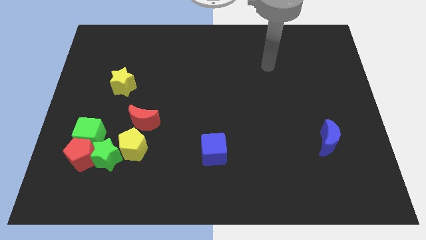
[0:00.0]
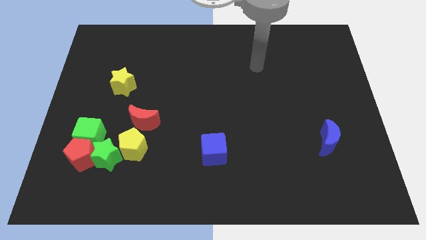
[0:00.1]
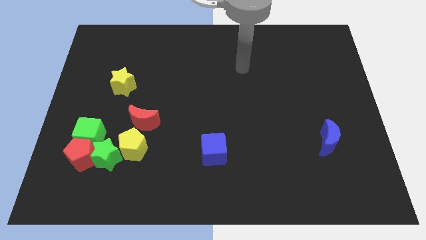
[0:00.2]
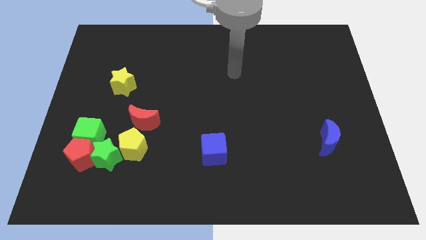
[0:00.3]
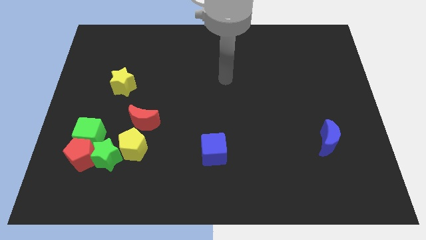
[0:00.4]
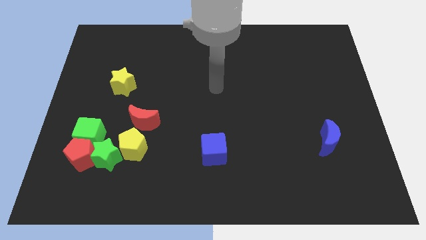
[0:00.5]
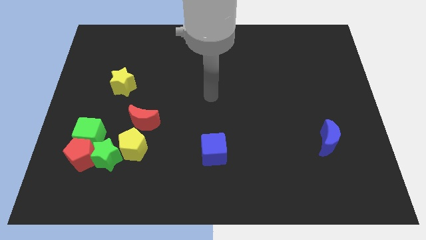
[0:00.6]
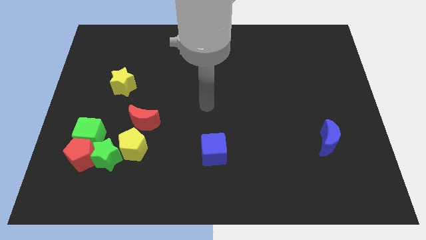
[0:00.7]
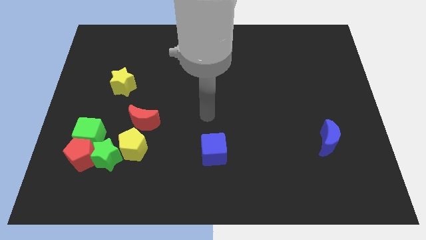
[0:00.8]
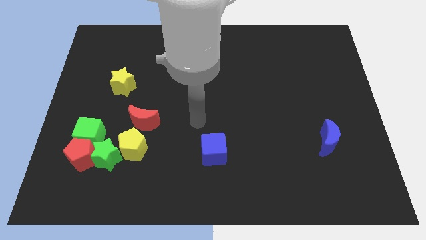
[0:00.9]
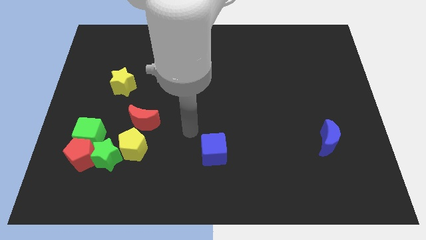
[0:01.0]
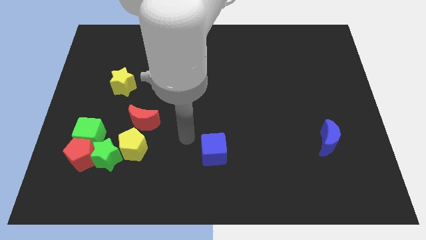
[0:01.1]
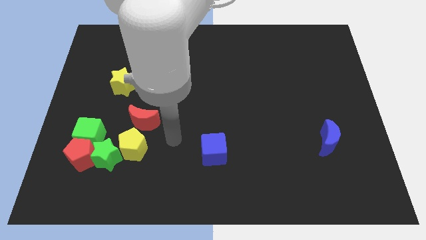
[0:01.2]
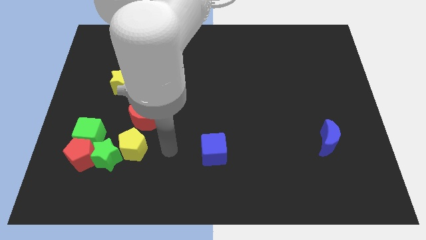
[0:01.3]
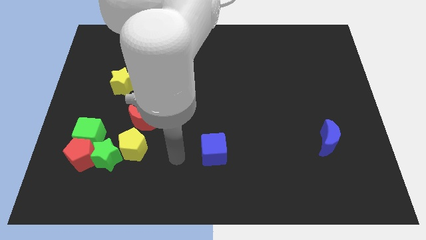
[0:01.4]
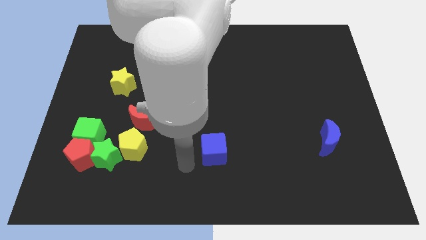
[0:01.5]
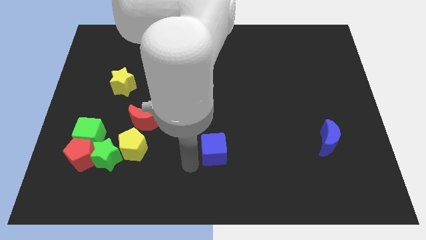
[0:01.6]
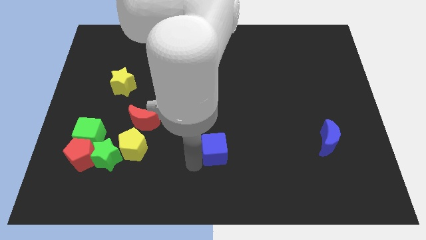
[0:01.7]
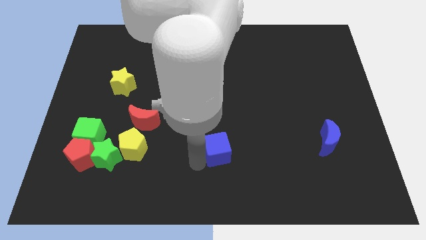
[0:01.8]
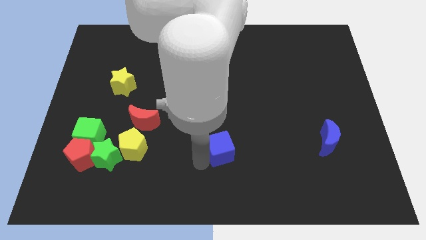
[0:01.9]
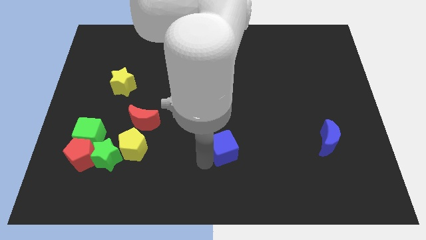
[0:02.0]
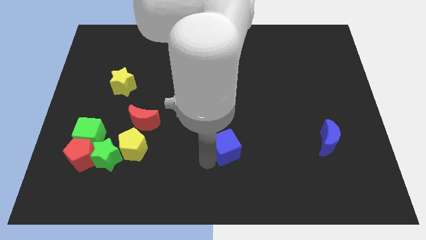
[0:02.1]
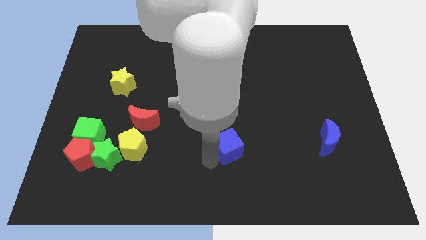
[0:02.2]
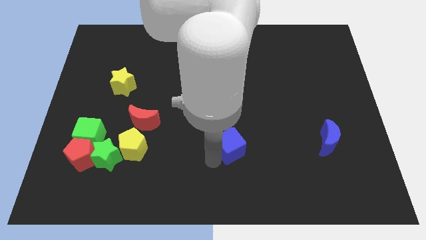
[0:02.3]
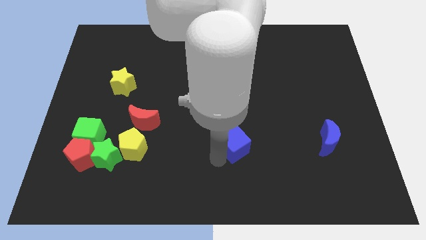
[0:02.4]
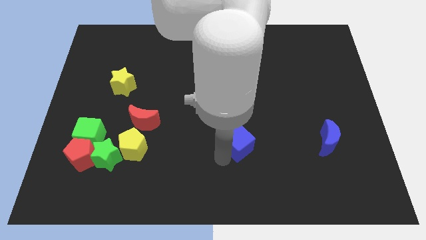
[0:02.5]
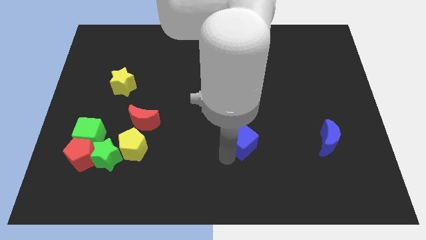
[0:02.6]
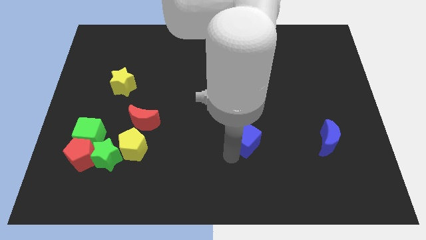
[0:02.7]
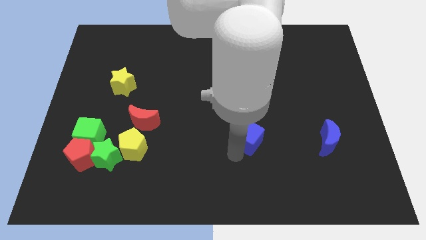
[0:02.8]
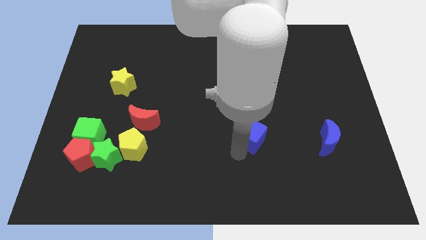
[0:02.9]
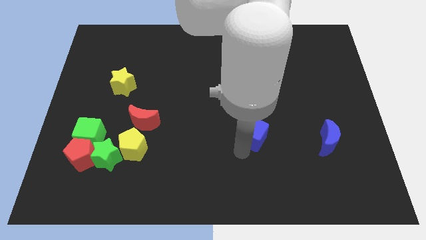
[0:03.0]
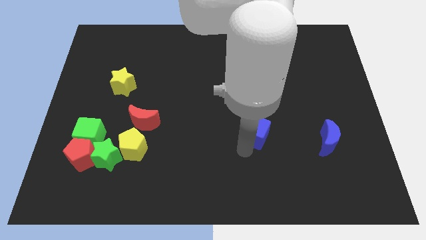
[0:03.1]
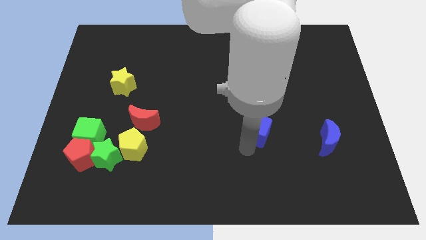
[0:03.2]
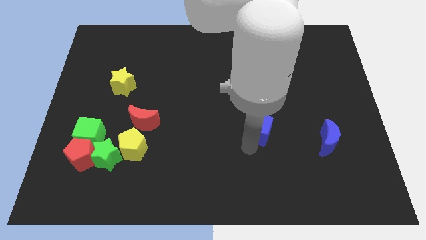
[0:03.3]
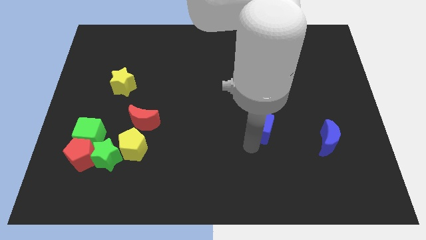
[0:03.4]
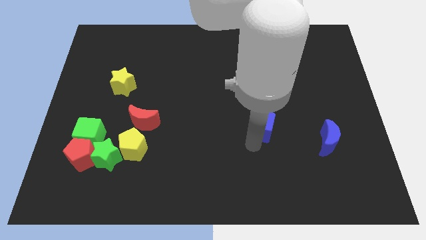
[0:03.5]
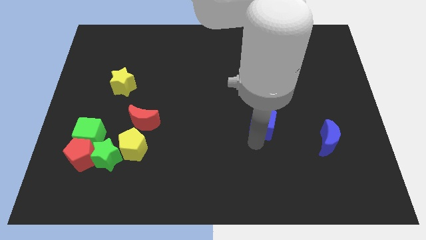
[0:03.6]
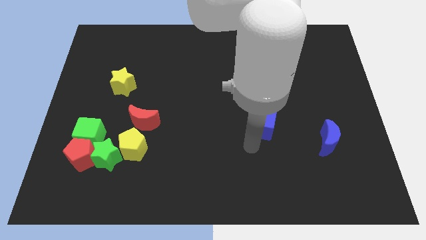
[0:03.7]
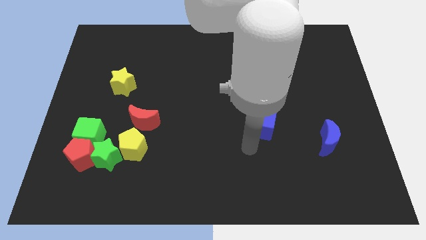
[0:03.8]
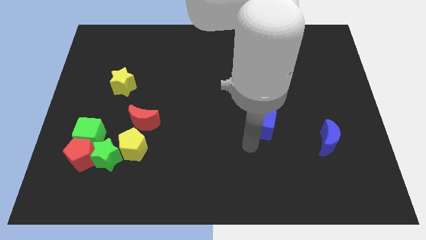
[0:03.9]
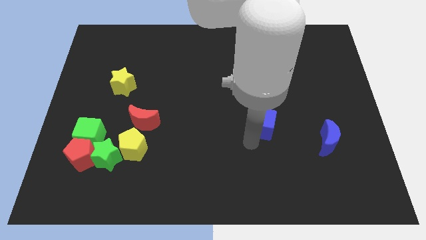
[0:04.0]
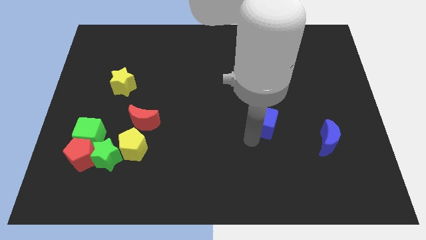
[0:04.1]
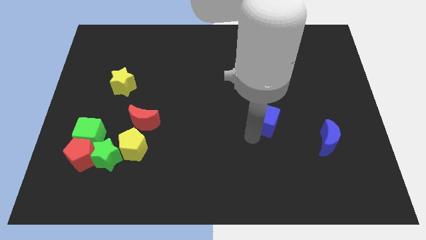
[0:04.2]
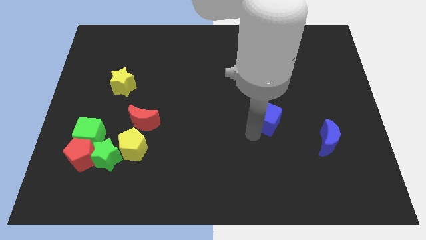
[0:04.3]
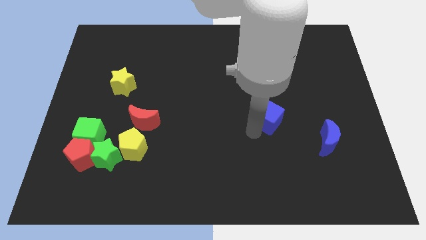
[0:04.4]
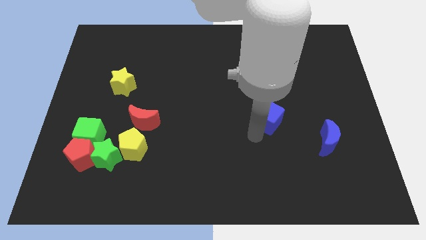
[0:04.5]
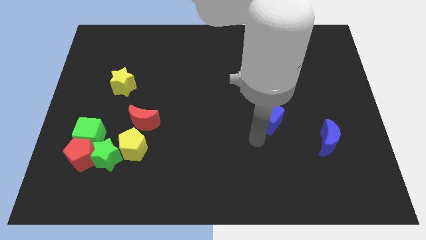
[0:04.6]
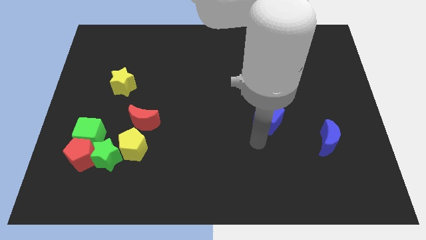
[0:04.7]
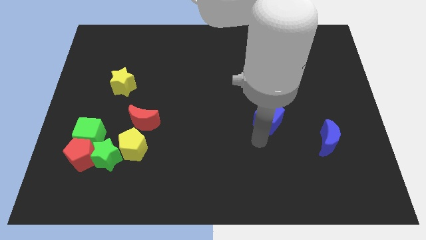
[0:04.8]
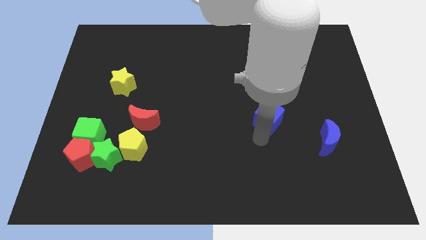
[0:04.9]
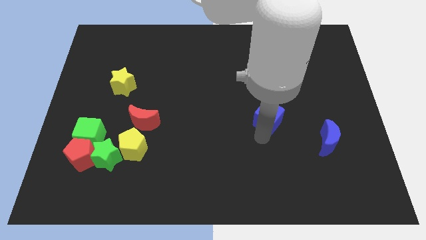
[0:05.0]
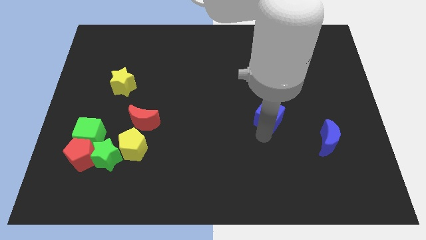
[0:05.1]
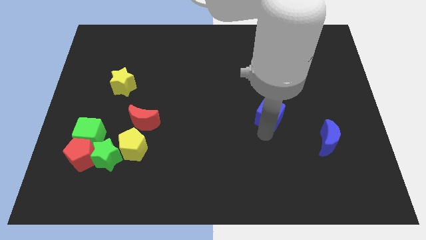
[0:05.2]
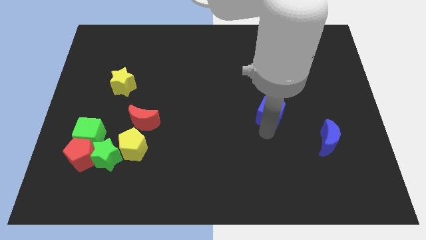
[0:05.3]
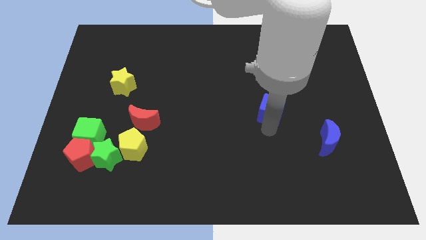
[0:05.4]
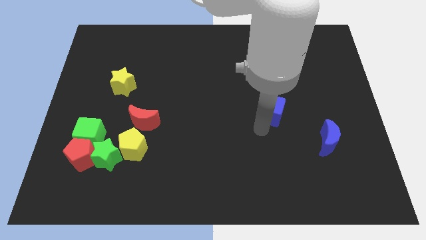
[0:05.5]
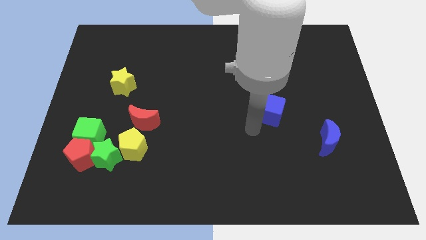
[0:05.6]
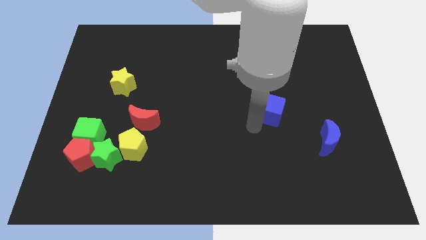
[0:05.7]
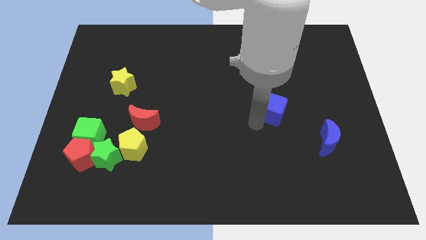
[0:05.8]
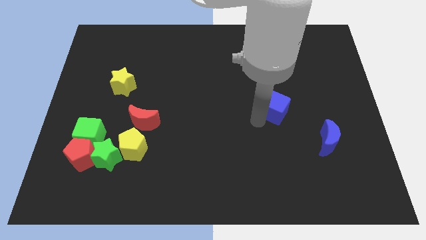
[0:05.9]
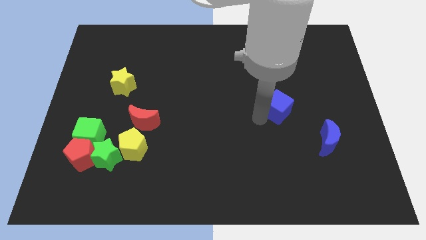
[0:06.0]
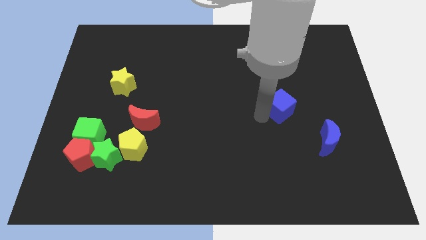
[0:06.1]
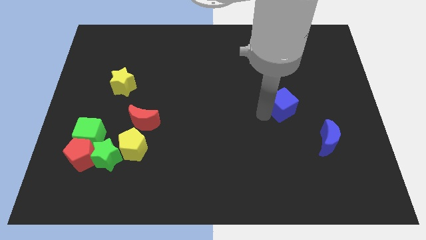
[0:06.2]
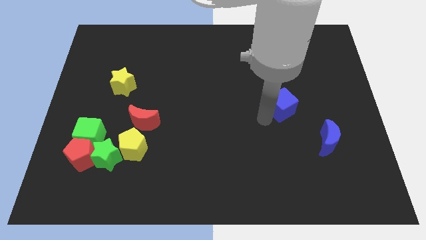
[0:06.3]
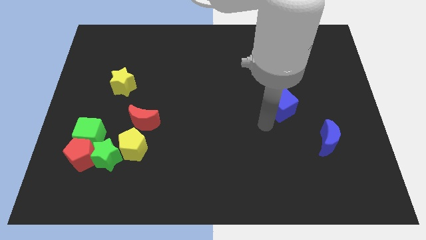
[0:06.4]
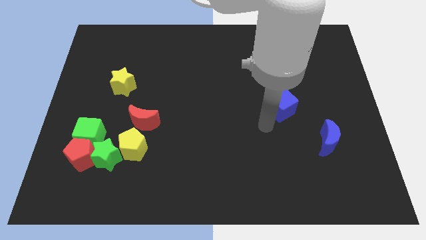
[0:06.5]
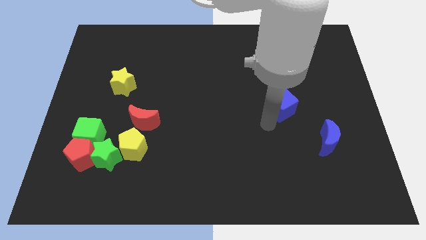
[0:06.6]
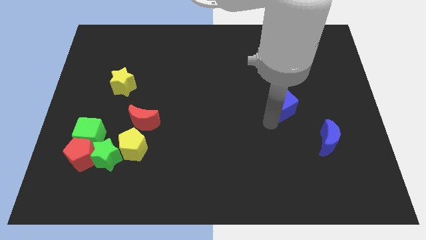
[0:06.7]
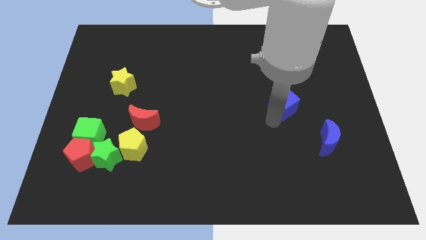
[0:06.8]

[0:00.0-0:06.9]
push the blue cube diagonally up and to the right

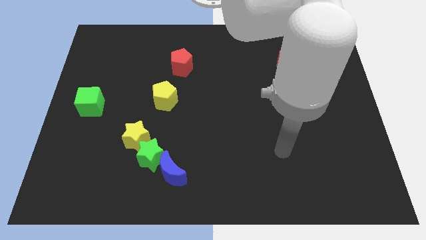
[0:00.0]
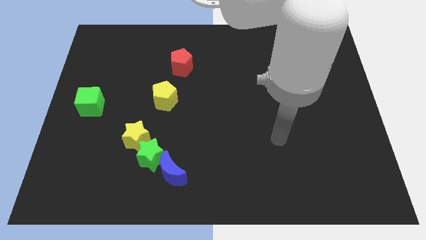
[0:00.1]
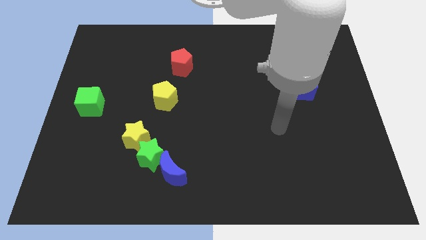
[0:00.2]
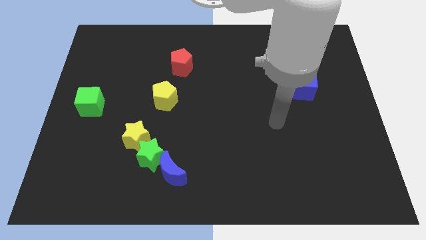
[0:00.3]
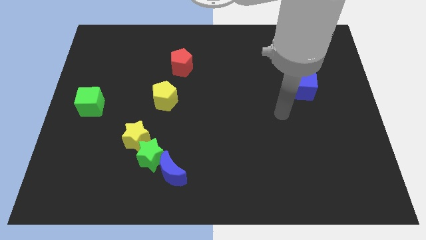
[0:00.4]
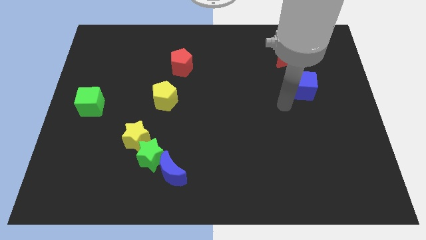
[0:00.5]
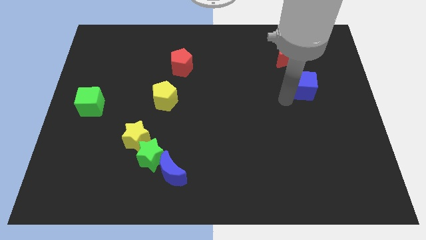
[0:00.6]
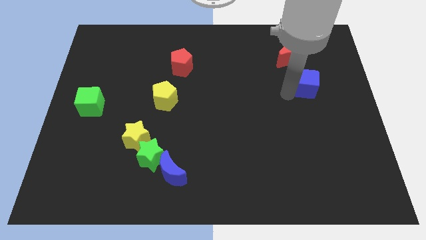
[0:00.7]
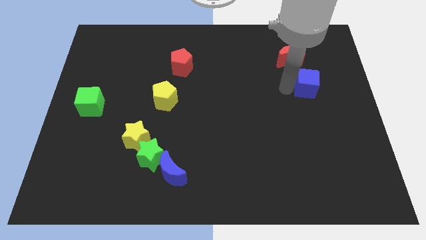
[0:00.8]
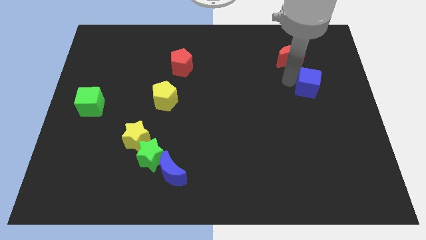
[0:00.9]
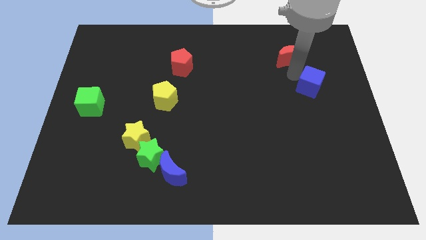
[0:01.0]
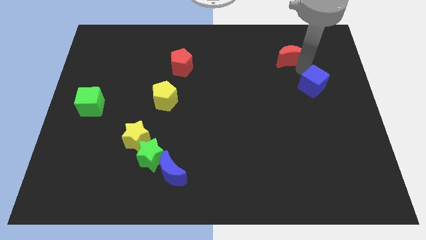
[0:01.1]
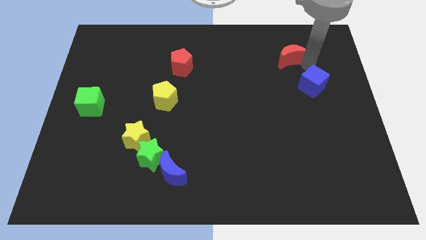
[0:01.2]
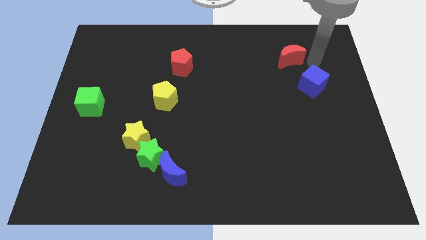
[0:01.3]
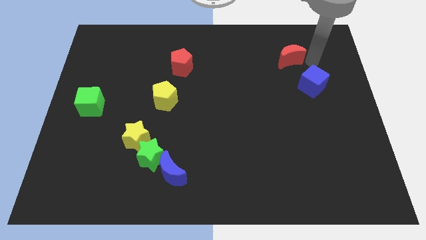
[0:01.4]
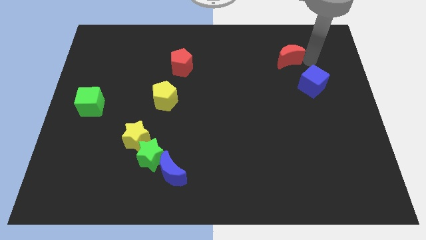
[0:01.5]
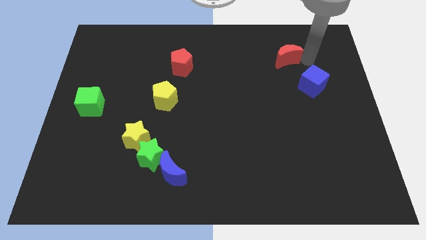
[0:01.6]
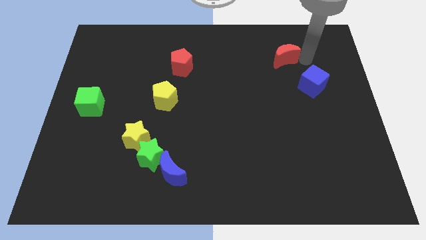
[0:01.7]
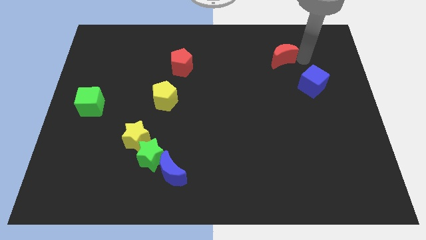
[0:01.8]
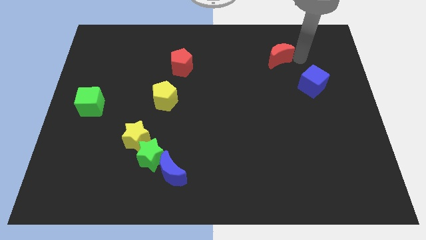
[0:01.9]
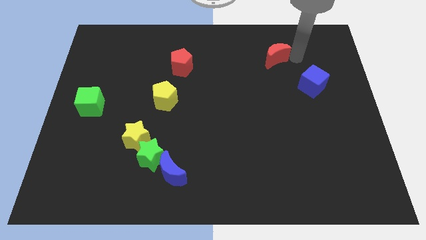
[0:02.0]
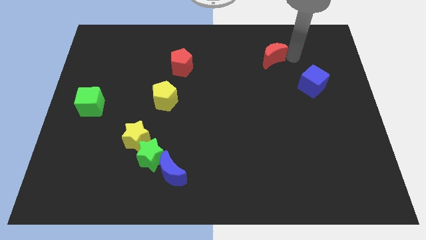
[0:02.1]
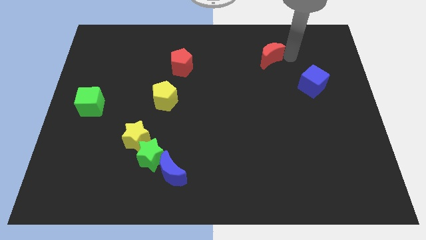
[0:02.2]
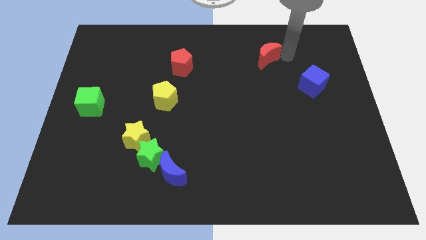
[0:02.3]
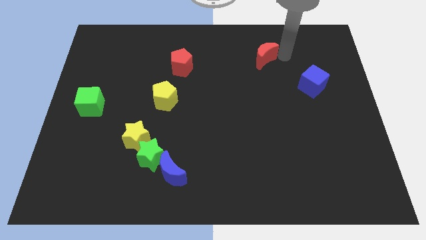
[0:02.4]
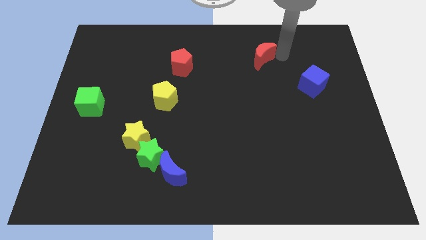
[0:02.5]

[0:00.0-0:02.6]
slightly slide the red moon to the left
